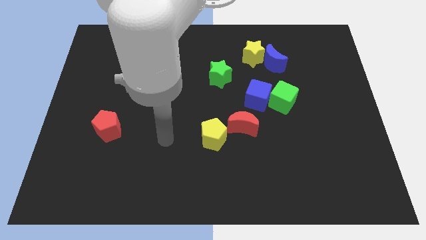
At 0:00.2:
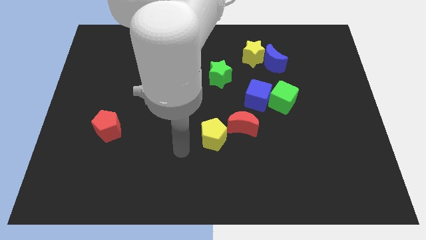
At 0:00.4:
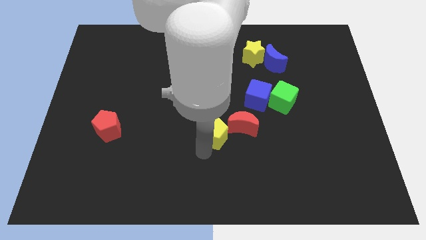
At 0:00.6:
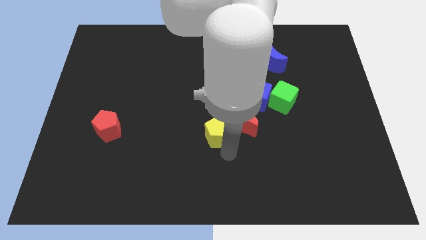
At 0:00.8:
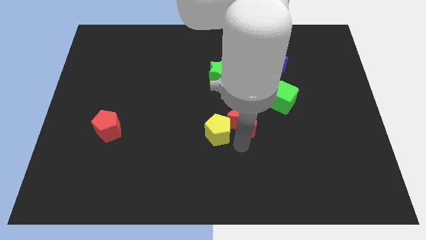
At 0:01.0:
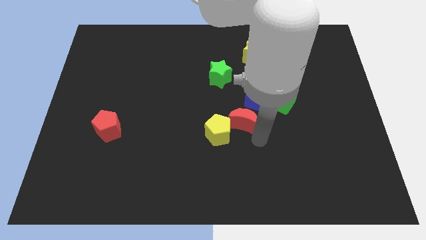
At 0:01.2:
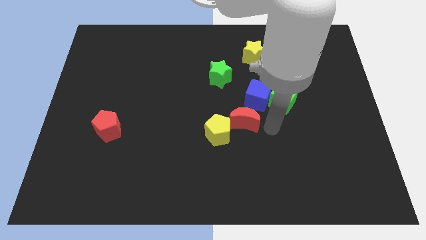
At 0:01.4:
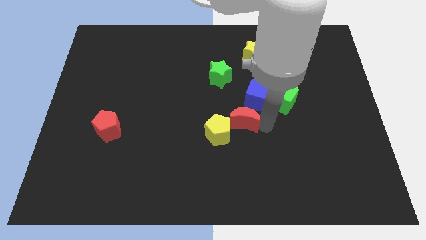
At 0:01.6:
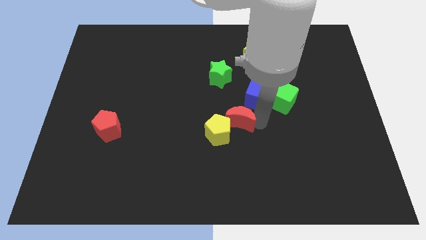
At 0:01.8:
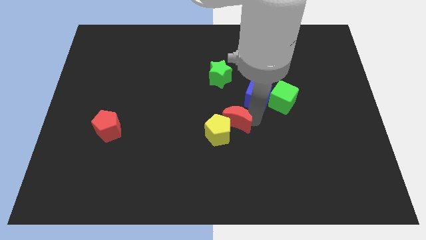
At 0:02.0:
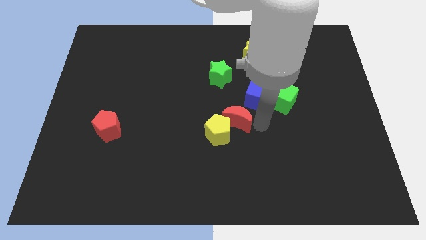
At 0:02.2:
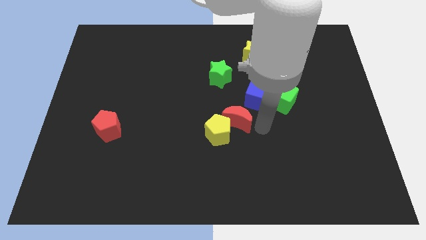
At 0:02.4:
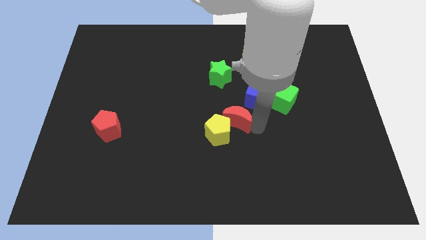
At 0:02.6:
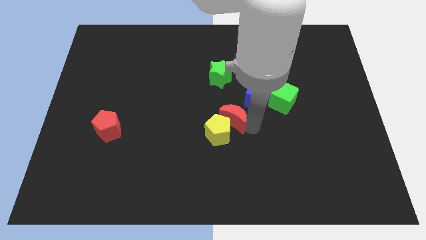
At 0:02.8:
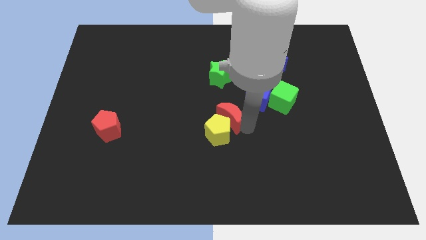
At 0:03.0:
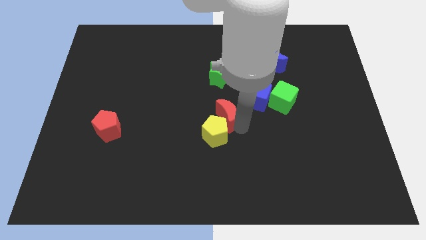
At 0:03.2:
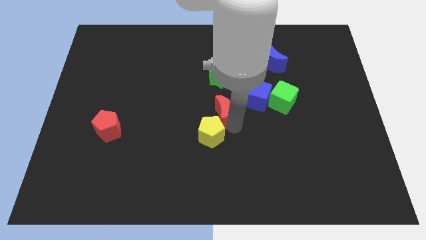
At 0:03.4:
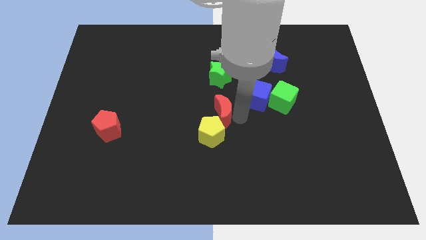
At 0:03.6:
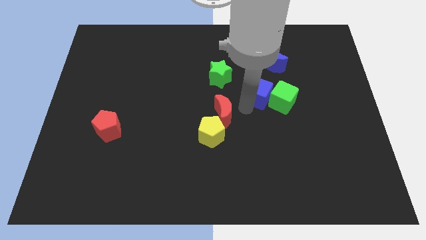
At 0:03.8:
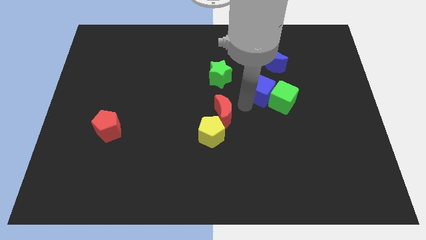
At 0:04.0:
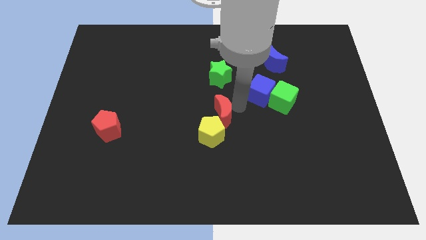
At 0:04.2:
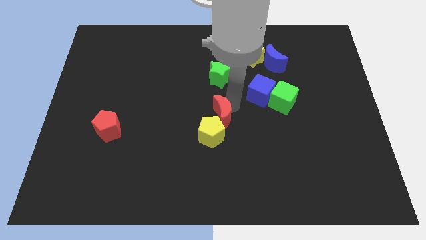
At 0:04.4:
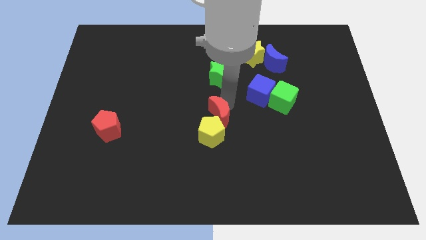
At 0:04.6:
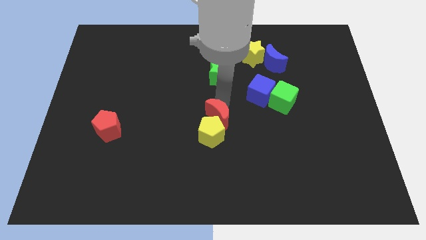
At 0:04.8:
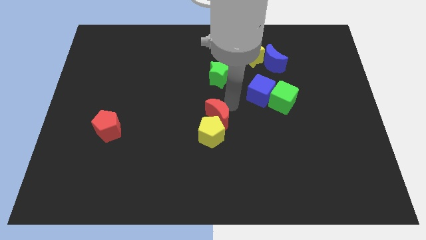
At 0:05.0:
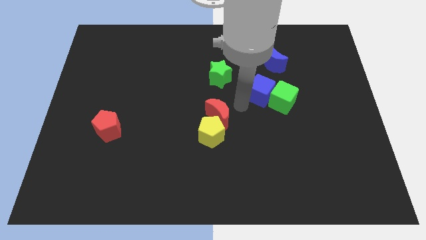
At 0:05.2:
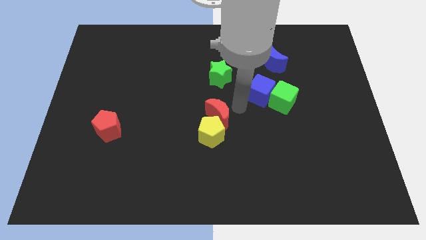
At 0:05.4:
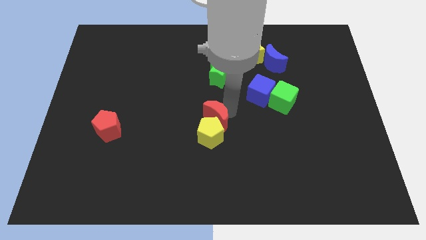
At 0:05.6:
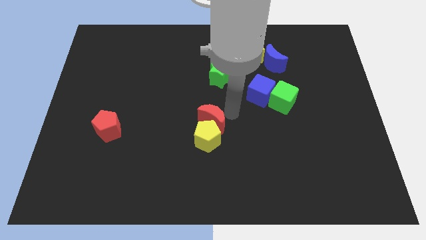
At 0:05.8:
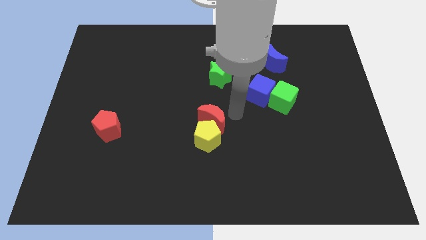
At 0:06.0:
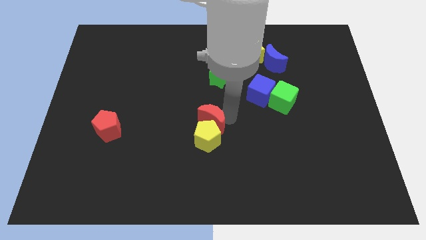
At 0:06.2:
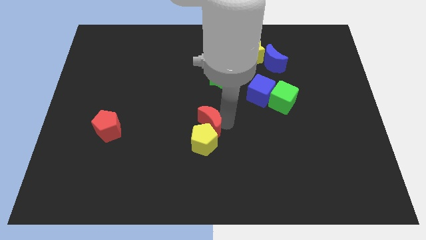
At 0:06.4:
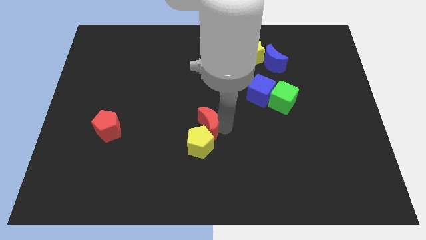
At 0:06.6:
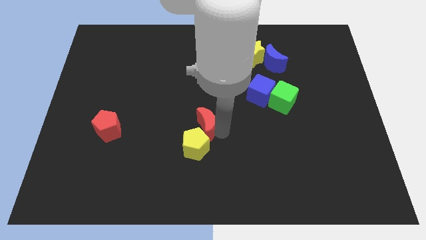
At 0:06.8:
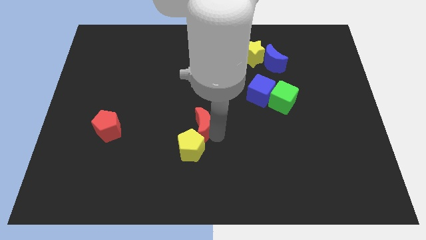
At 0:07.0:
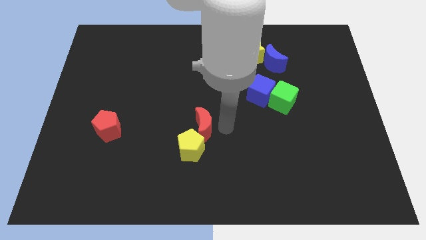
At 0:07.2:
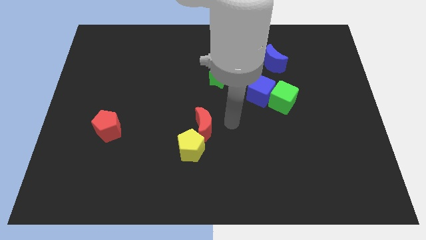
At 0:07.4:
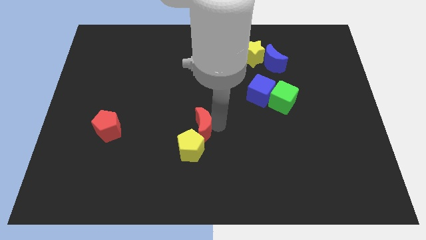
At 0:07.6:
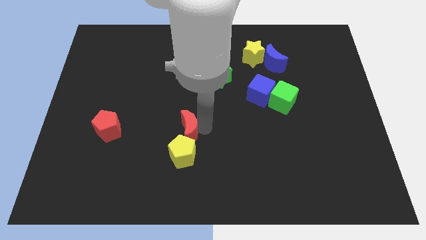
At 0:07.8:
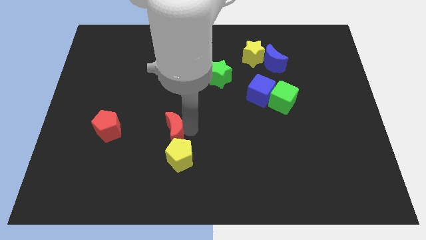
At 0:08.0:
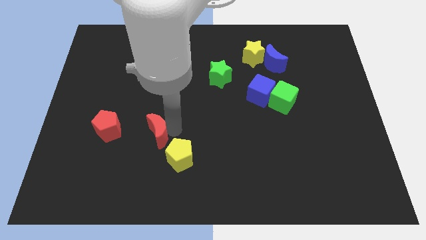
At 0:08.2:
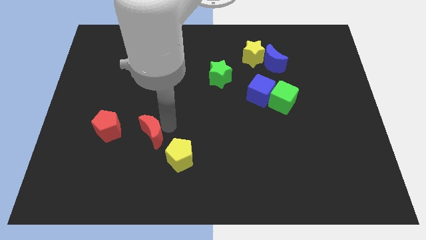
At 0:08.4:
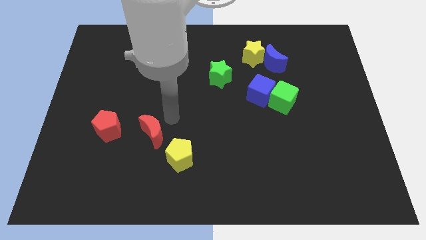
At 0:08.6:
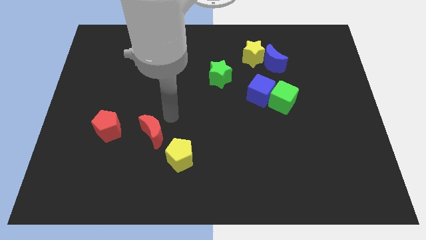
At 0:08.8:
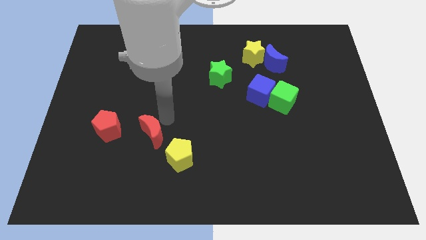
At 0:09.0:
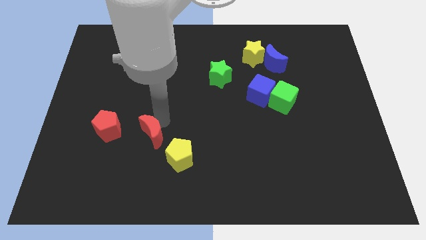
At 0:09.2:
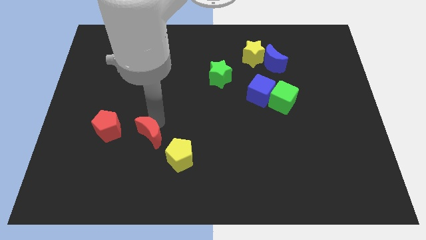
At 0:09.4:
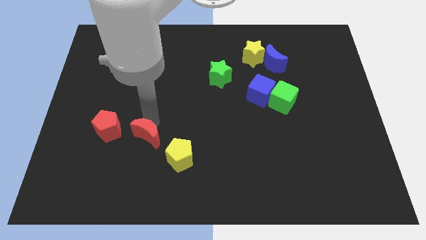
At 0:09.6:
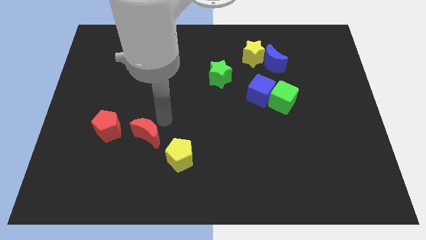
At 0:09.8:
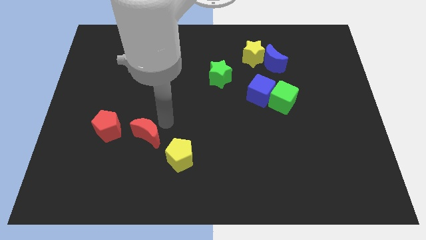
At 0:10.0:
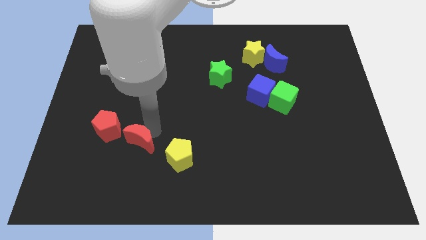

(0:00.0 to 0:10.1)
put the red moon diagonally down and to the right of the red pentagon

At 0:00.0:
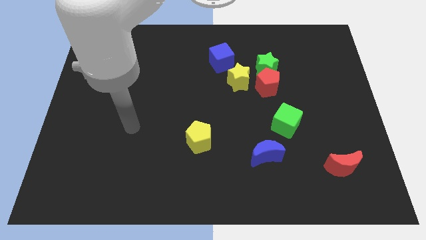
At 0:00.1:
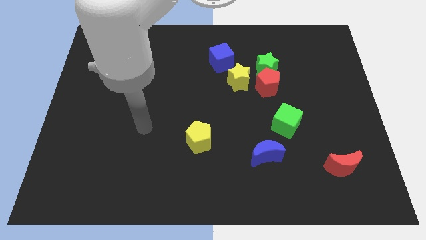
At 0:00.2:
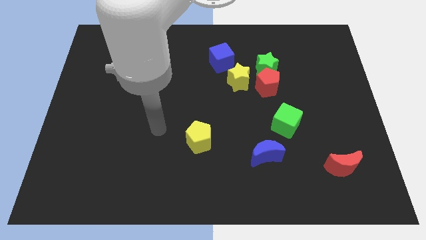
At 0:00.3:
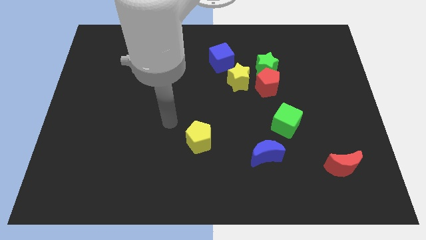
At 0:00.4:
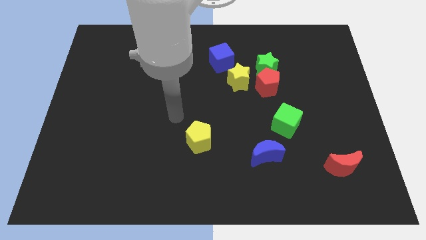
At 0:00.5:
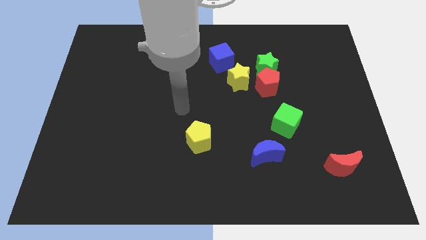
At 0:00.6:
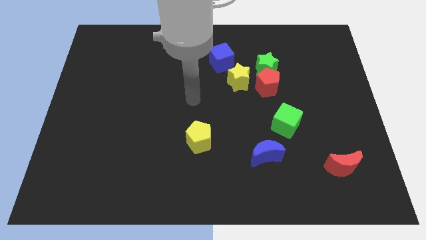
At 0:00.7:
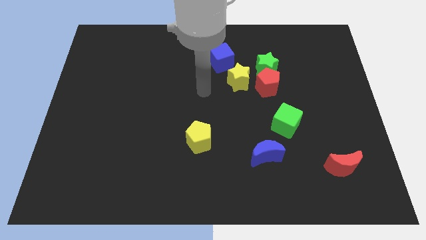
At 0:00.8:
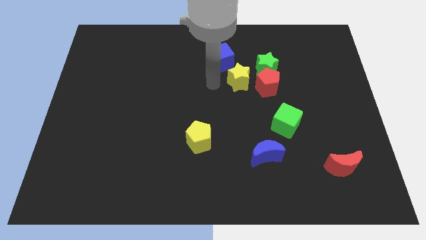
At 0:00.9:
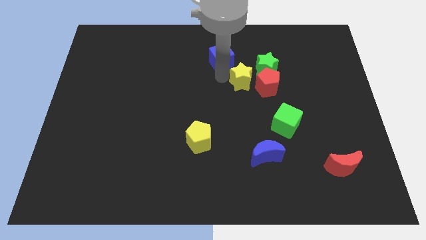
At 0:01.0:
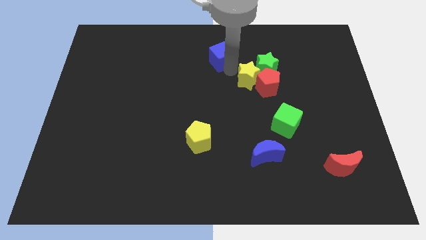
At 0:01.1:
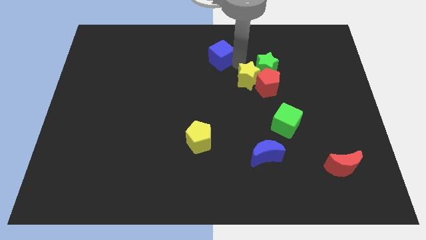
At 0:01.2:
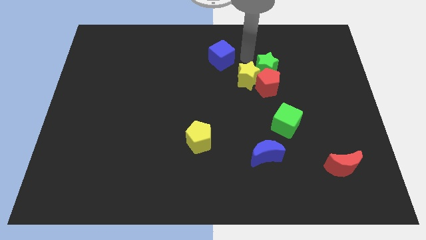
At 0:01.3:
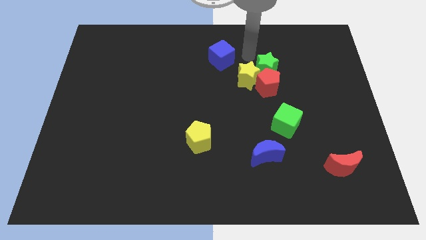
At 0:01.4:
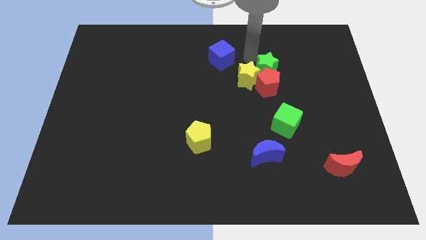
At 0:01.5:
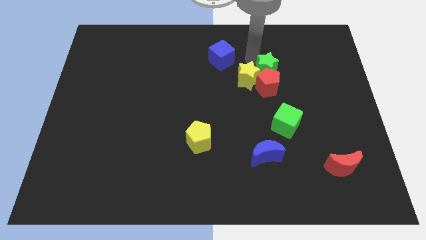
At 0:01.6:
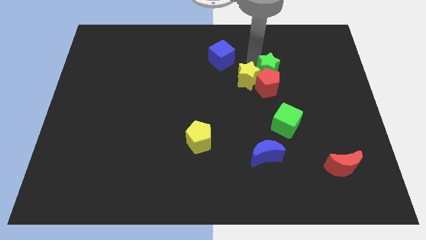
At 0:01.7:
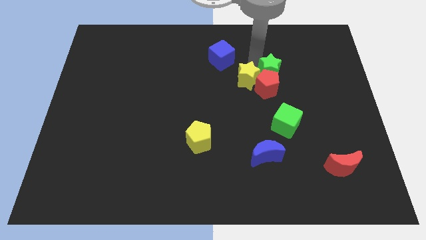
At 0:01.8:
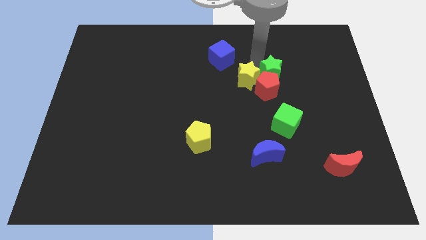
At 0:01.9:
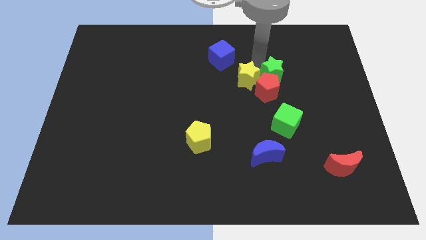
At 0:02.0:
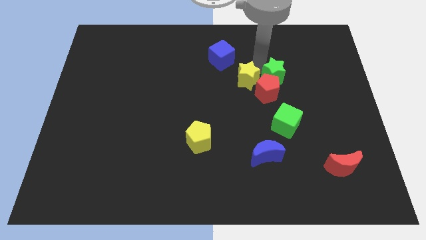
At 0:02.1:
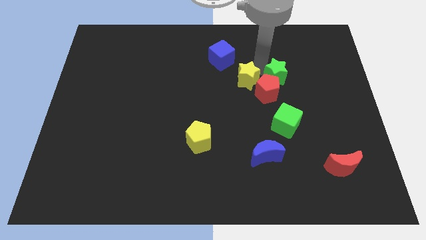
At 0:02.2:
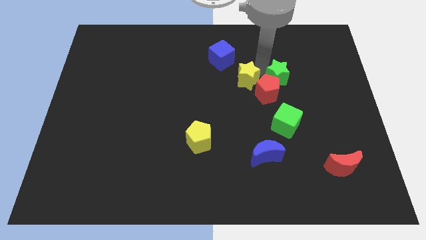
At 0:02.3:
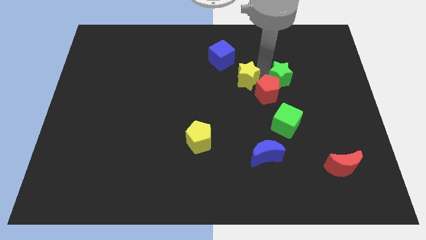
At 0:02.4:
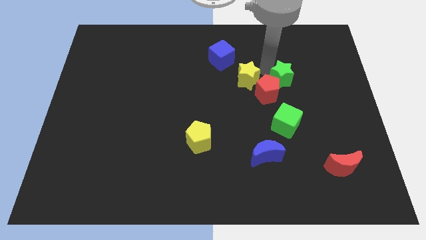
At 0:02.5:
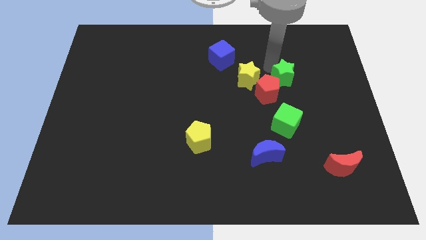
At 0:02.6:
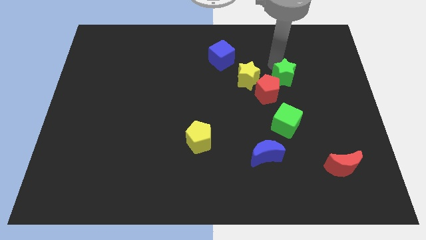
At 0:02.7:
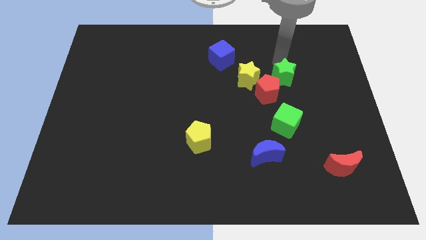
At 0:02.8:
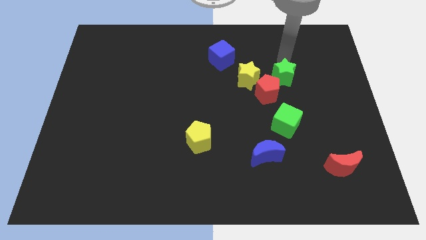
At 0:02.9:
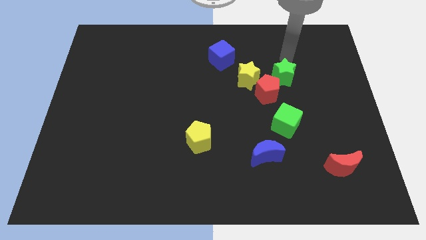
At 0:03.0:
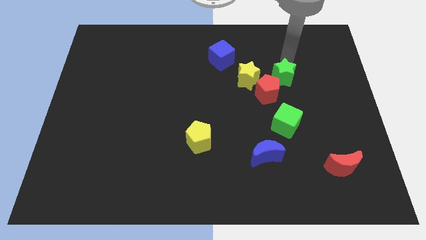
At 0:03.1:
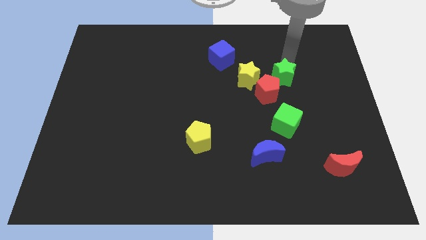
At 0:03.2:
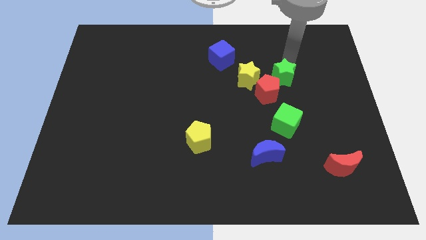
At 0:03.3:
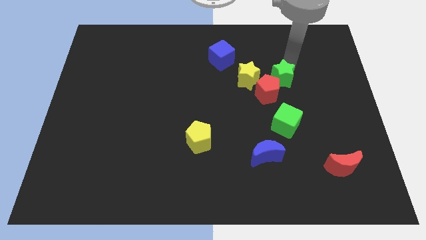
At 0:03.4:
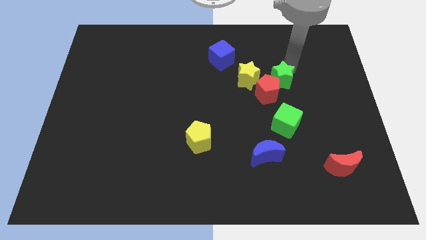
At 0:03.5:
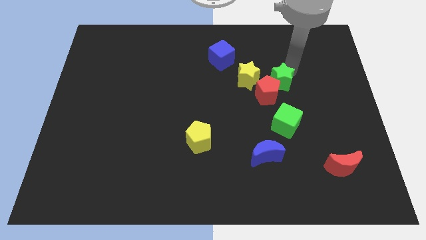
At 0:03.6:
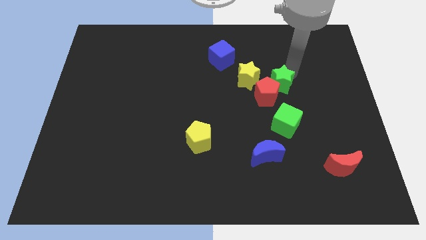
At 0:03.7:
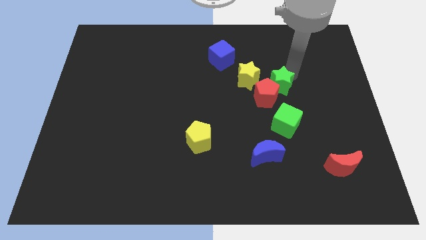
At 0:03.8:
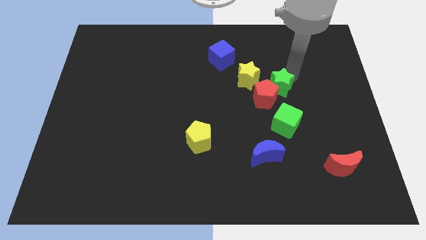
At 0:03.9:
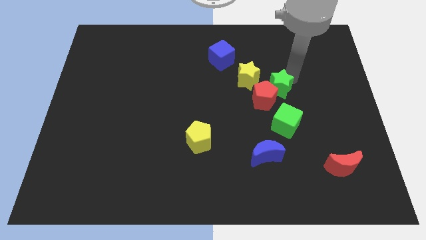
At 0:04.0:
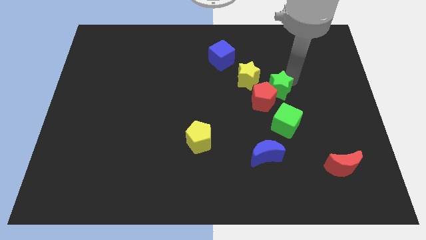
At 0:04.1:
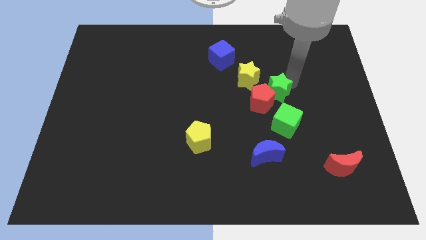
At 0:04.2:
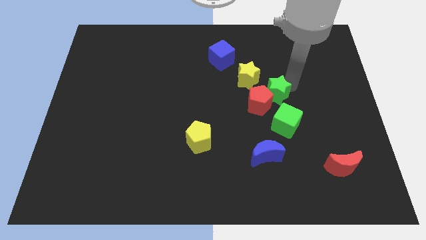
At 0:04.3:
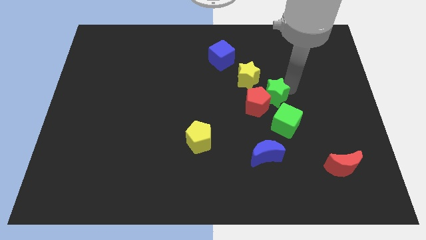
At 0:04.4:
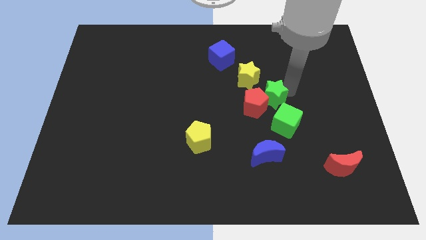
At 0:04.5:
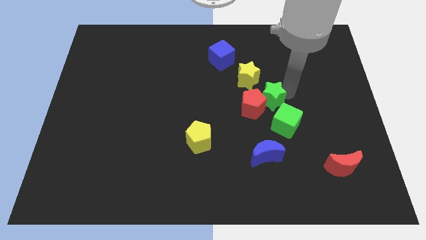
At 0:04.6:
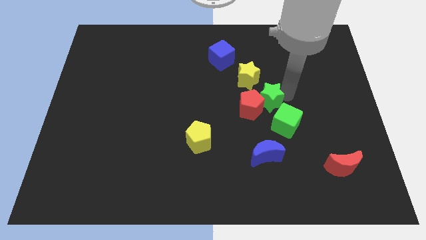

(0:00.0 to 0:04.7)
move the green star above the blue moon
